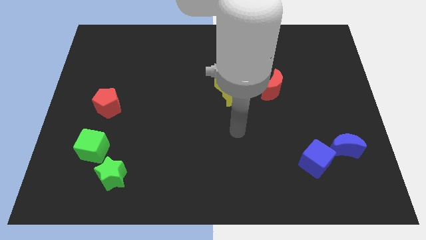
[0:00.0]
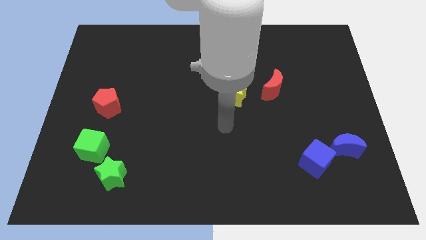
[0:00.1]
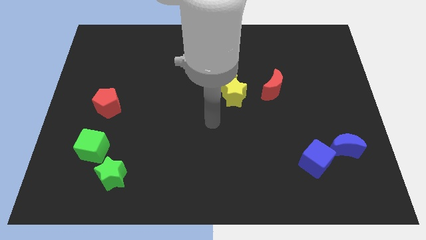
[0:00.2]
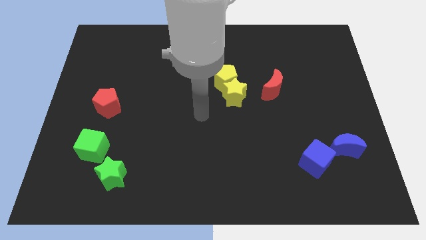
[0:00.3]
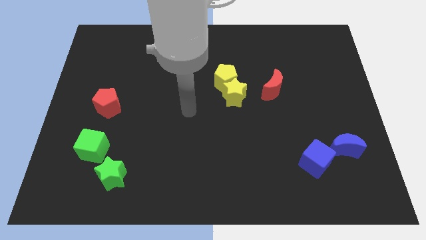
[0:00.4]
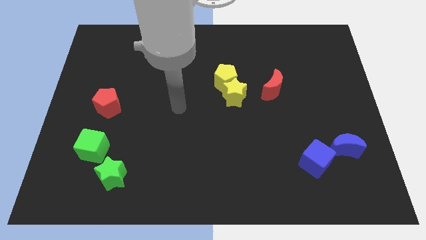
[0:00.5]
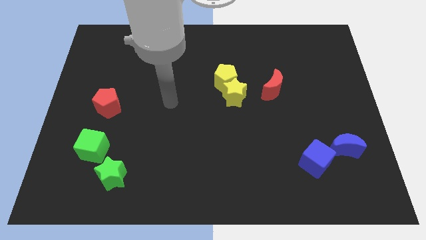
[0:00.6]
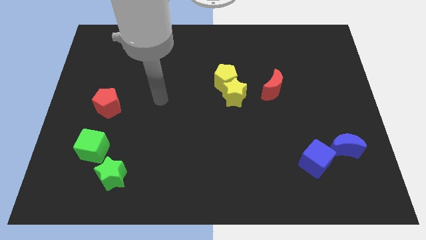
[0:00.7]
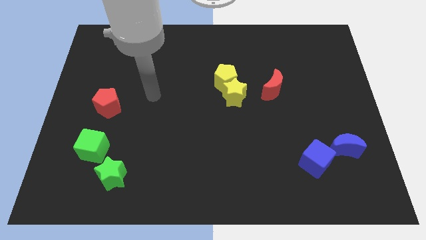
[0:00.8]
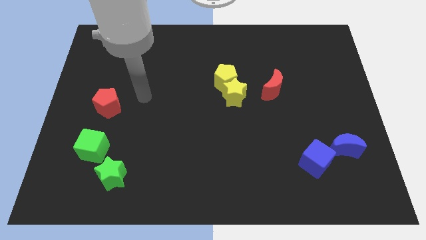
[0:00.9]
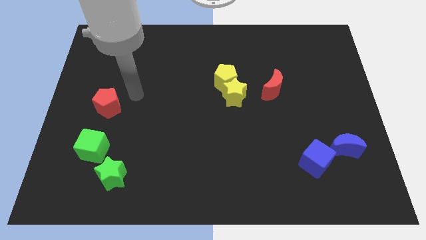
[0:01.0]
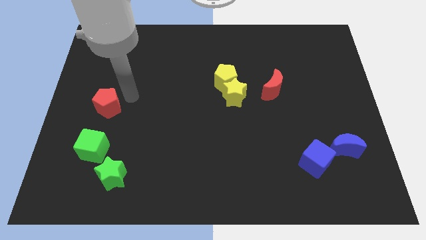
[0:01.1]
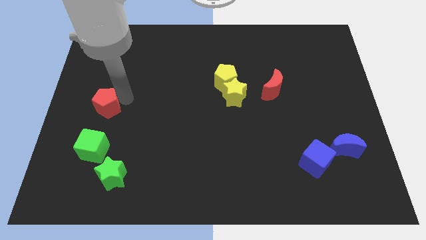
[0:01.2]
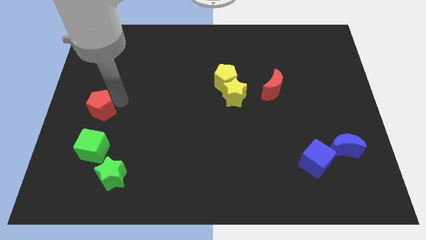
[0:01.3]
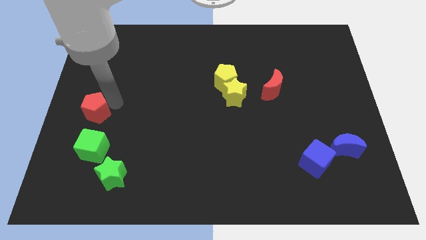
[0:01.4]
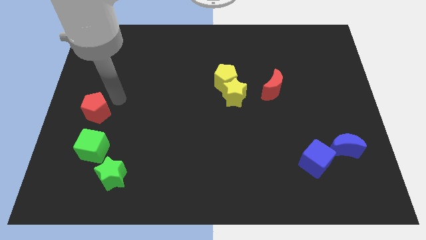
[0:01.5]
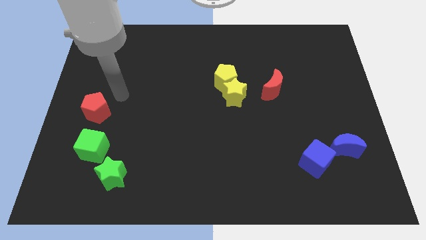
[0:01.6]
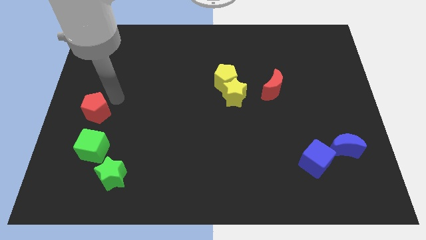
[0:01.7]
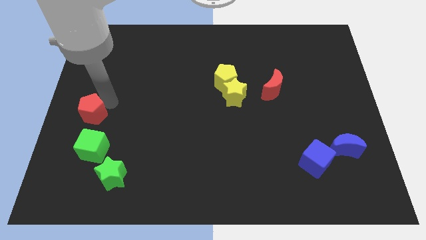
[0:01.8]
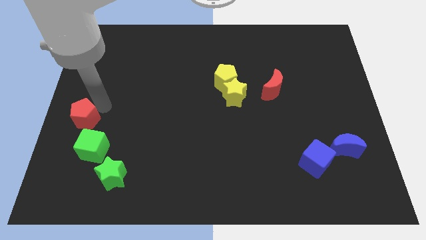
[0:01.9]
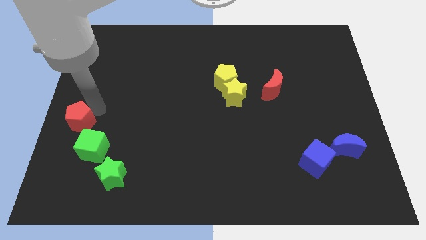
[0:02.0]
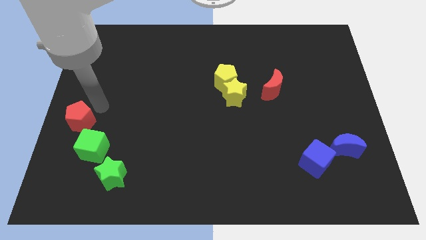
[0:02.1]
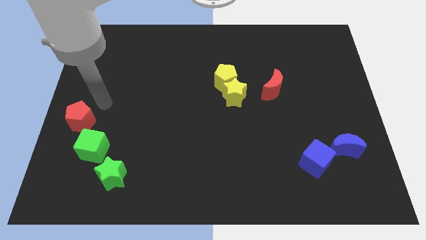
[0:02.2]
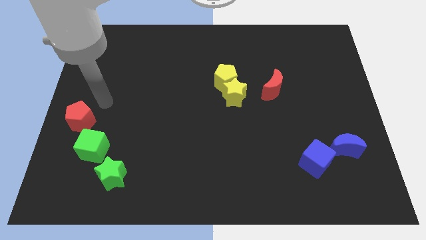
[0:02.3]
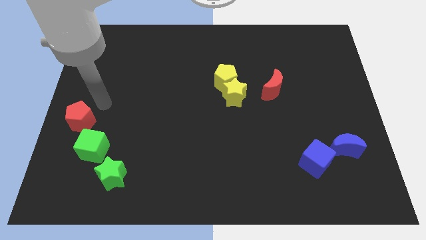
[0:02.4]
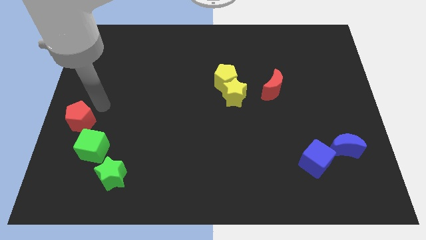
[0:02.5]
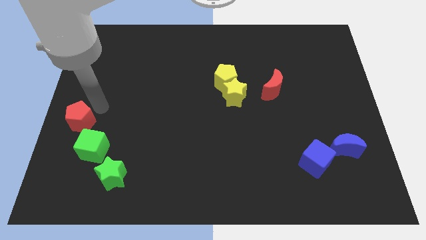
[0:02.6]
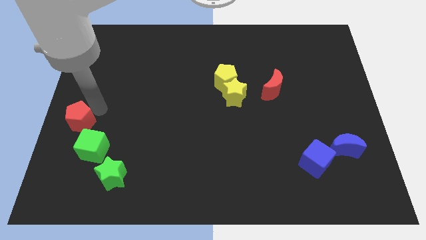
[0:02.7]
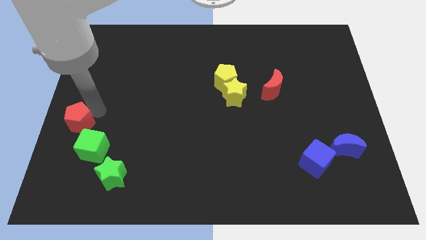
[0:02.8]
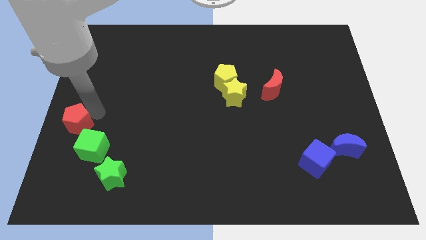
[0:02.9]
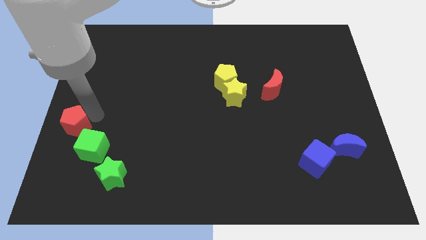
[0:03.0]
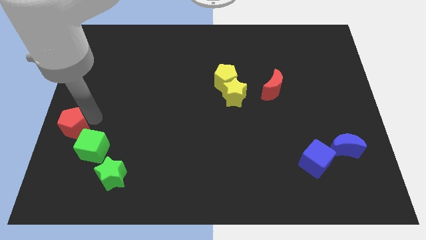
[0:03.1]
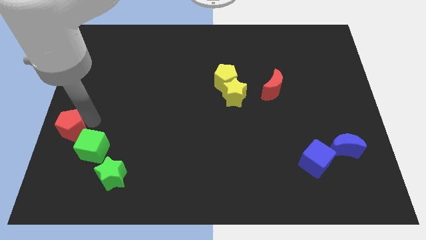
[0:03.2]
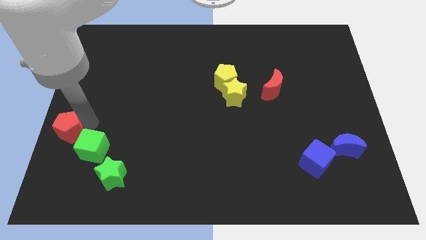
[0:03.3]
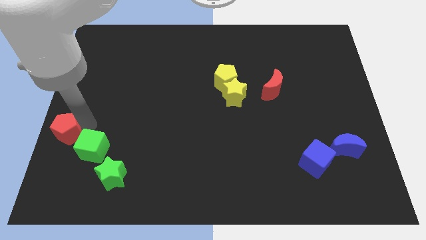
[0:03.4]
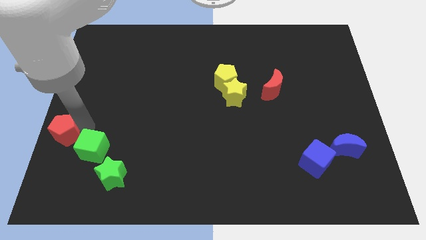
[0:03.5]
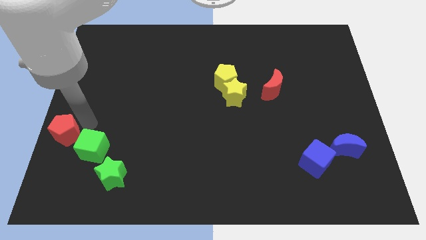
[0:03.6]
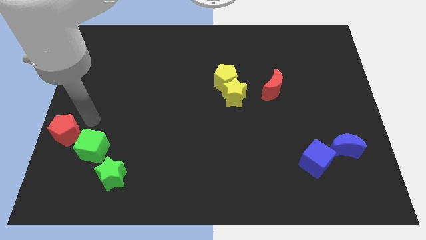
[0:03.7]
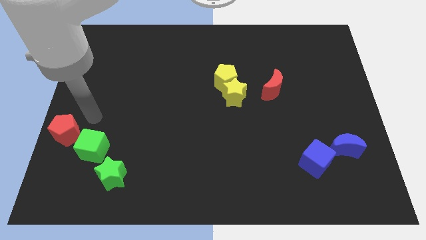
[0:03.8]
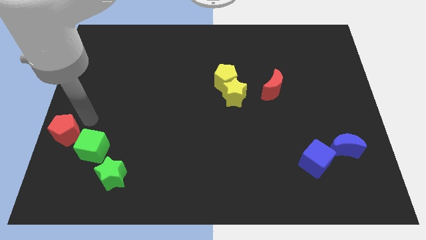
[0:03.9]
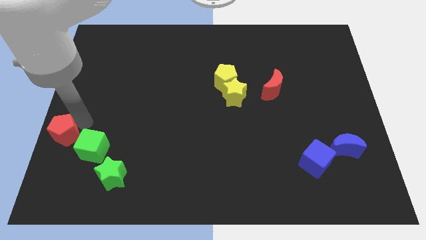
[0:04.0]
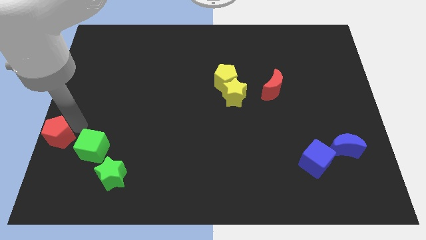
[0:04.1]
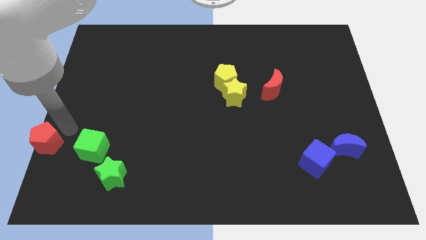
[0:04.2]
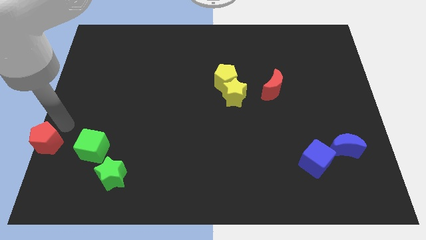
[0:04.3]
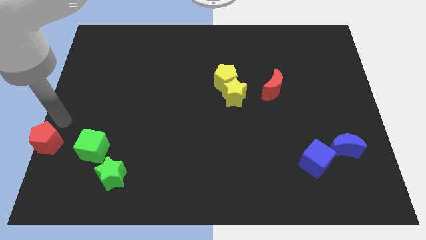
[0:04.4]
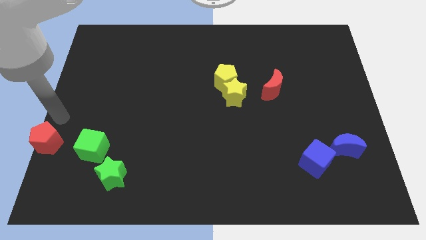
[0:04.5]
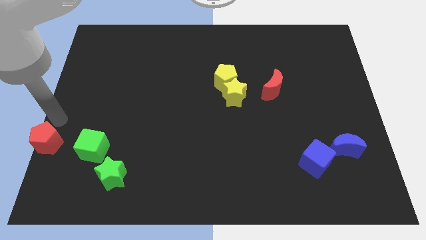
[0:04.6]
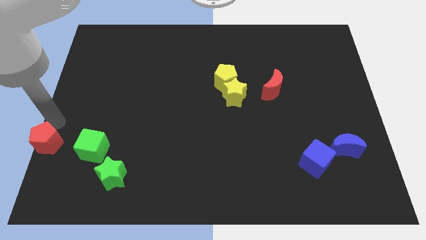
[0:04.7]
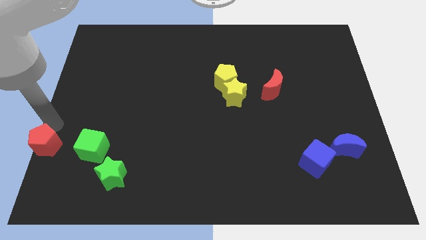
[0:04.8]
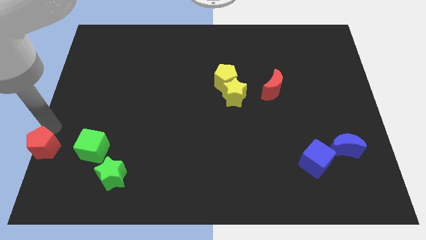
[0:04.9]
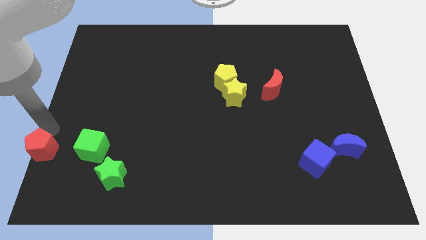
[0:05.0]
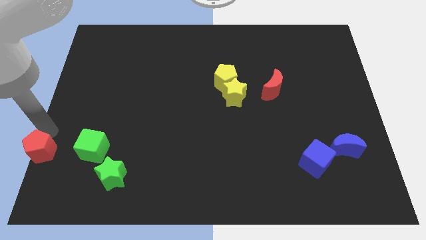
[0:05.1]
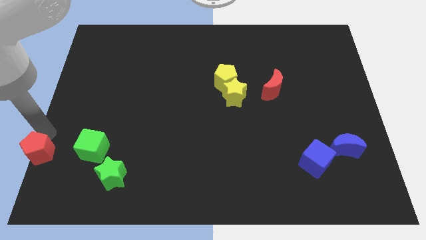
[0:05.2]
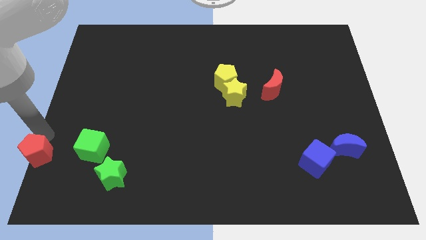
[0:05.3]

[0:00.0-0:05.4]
push the red pentagon to the bottom left
